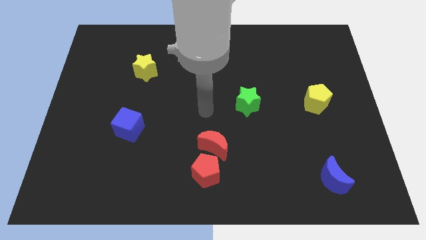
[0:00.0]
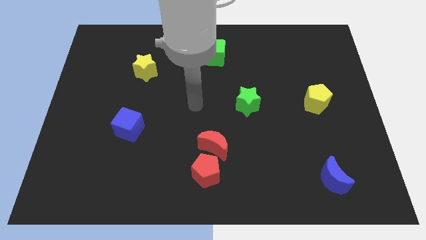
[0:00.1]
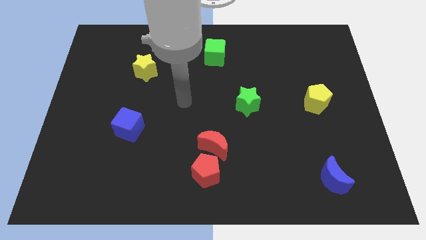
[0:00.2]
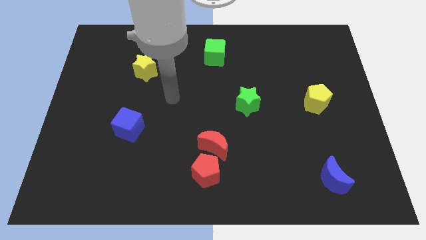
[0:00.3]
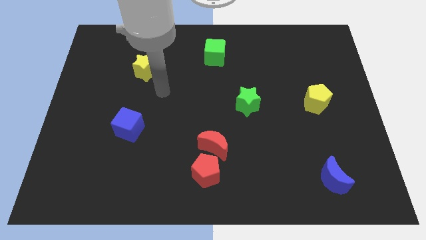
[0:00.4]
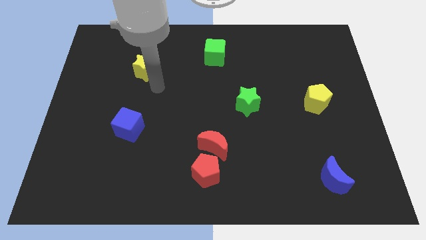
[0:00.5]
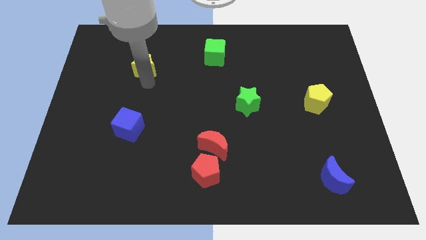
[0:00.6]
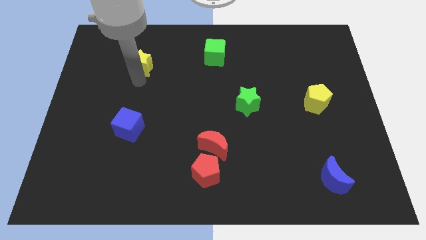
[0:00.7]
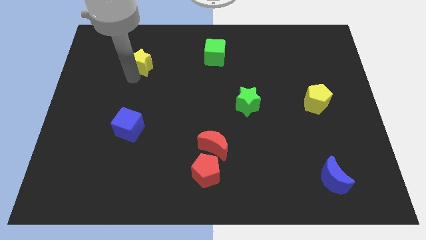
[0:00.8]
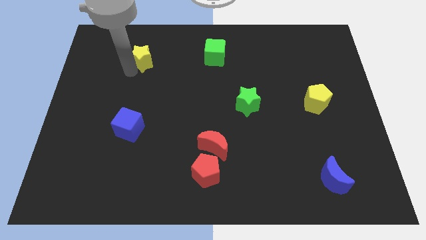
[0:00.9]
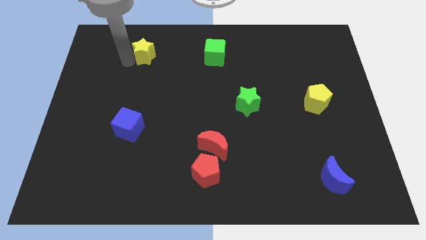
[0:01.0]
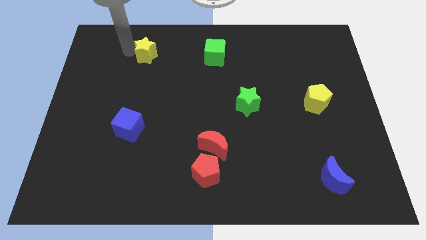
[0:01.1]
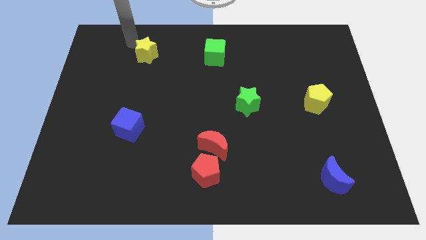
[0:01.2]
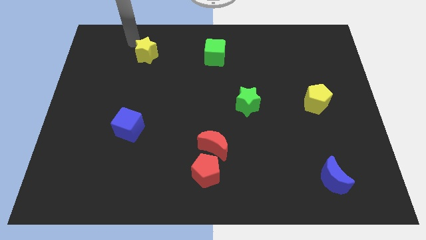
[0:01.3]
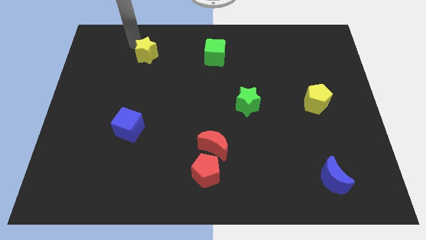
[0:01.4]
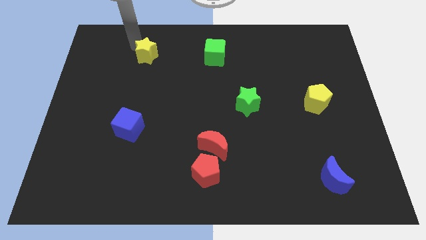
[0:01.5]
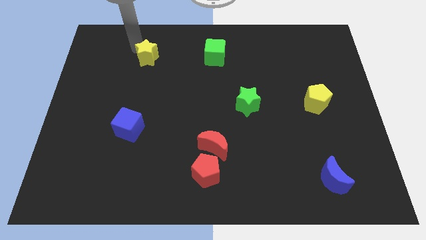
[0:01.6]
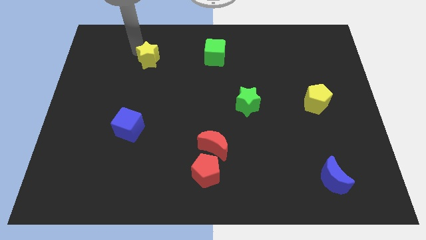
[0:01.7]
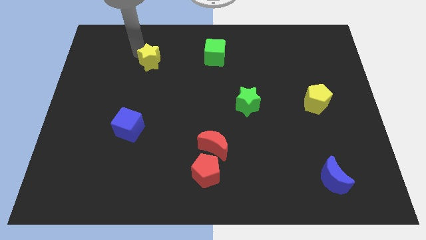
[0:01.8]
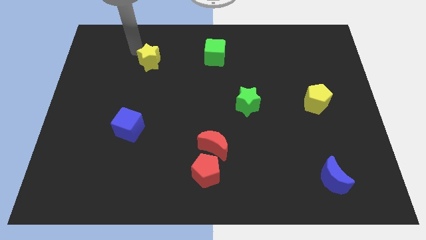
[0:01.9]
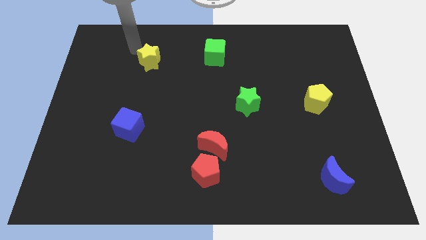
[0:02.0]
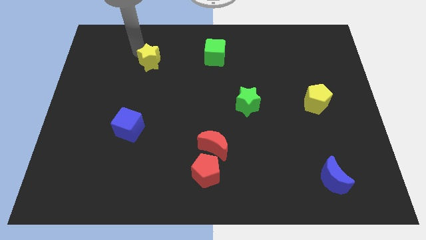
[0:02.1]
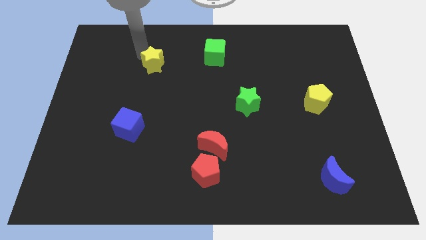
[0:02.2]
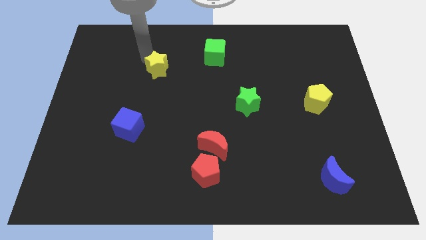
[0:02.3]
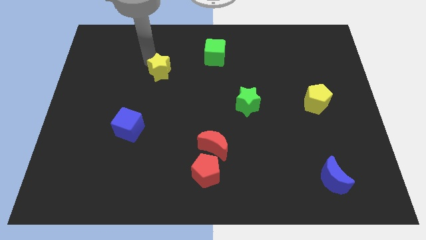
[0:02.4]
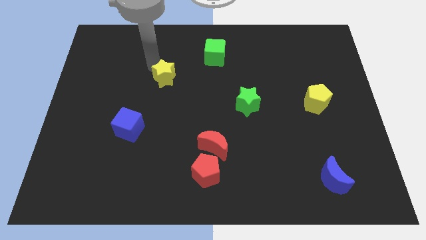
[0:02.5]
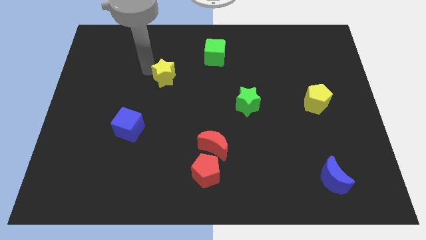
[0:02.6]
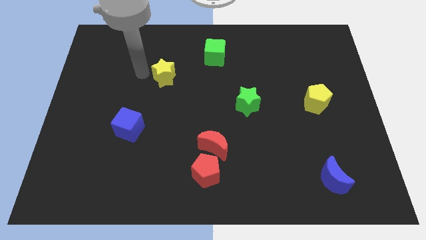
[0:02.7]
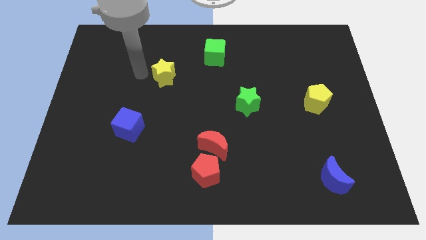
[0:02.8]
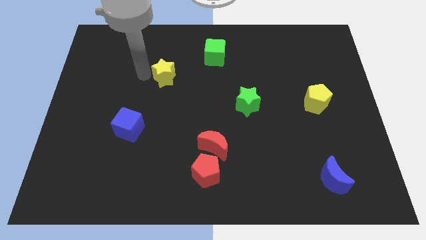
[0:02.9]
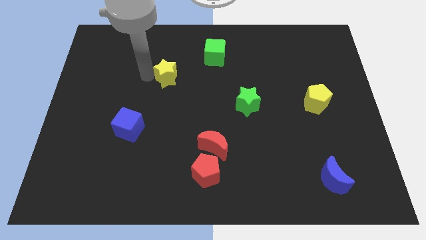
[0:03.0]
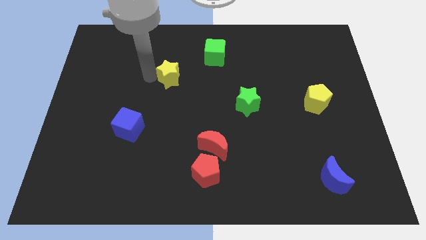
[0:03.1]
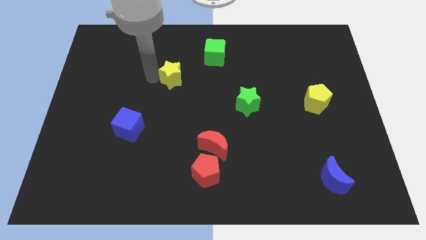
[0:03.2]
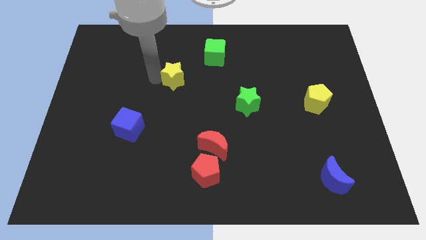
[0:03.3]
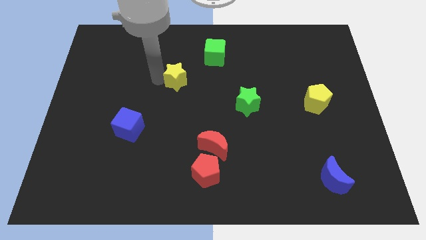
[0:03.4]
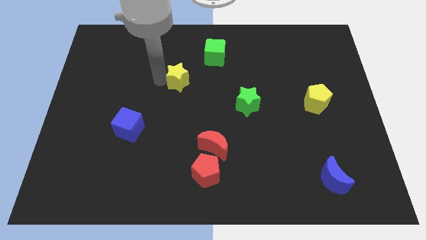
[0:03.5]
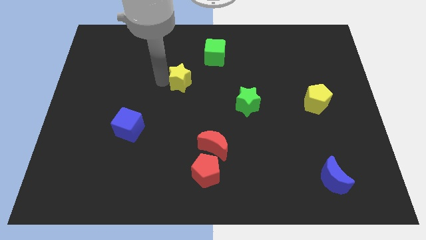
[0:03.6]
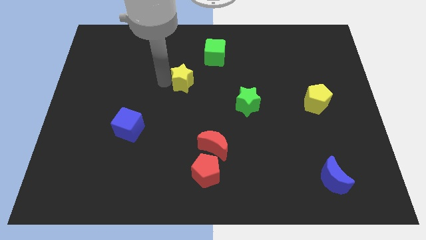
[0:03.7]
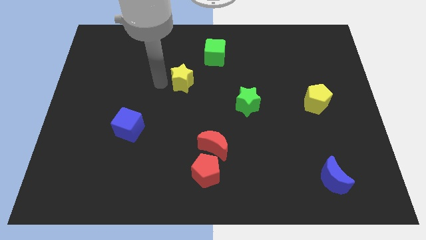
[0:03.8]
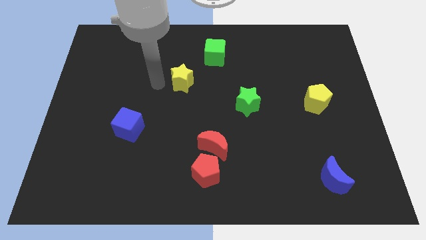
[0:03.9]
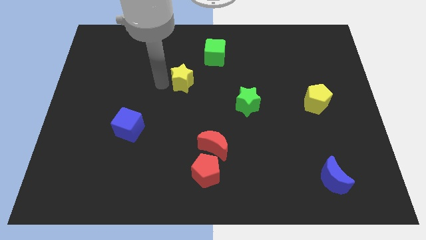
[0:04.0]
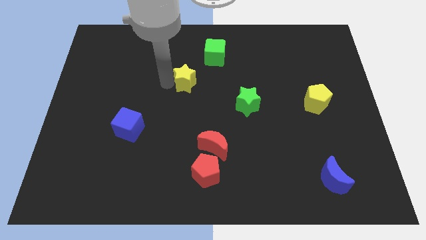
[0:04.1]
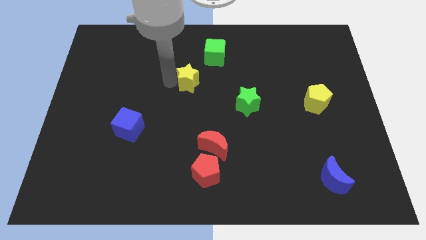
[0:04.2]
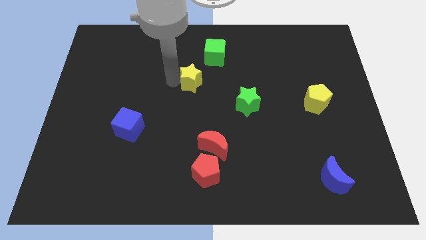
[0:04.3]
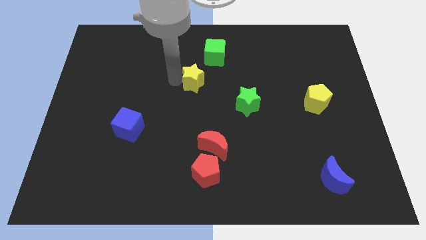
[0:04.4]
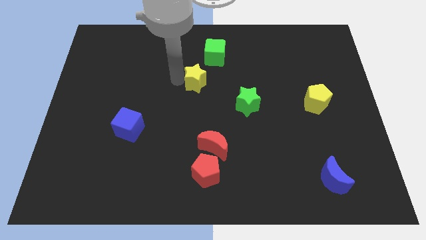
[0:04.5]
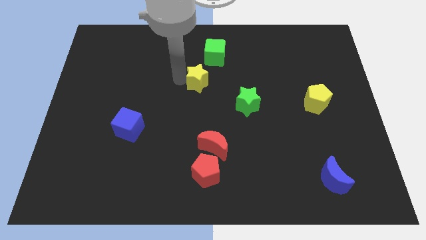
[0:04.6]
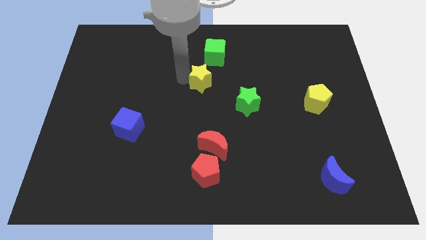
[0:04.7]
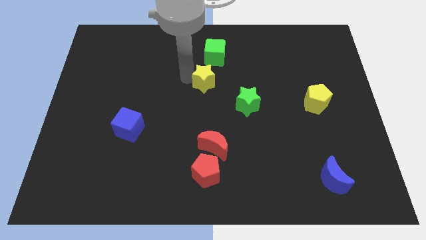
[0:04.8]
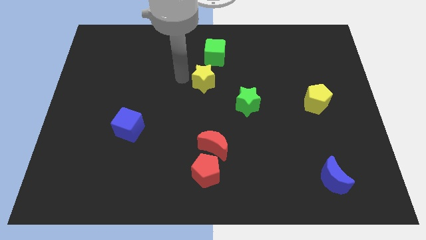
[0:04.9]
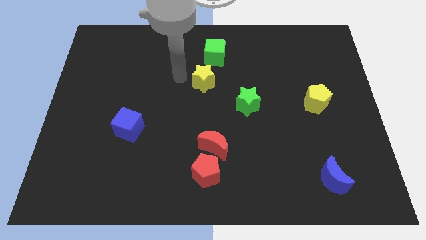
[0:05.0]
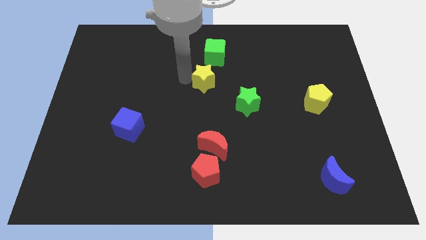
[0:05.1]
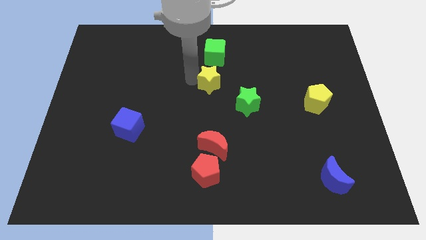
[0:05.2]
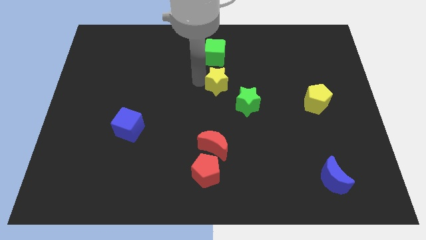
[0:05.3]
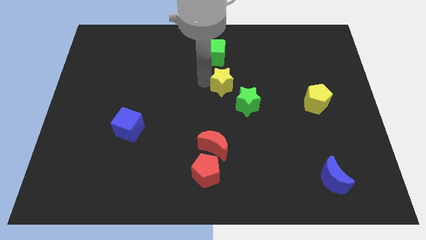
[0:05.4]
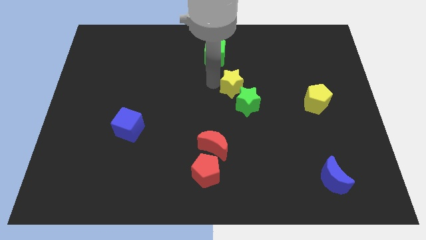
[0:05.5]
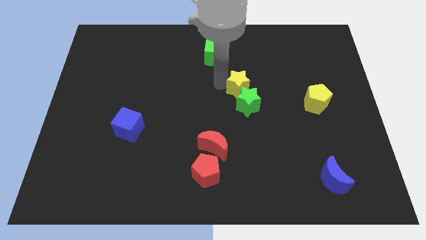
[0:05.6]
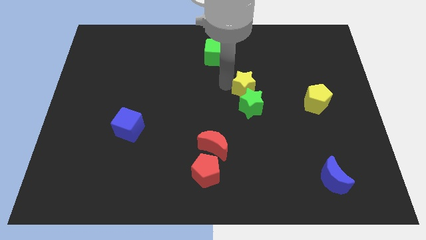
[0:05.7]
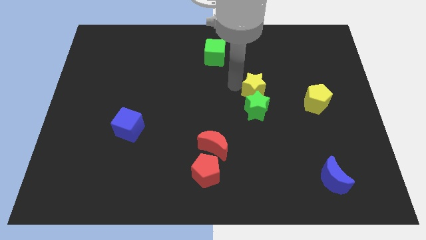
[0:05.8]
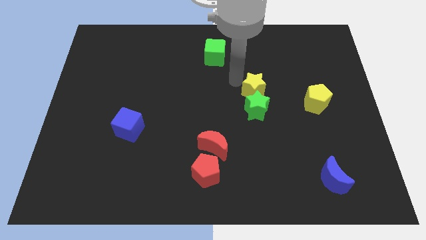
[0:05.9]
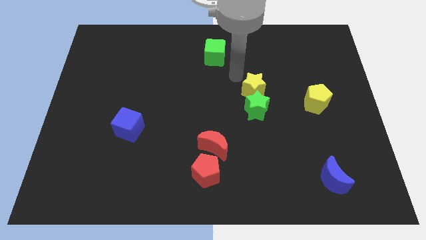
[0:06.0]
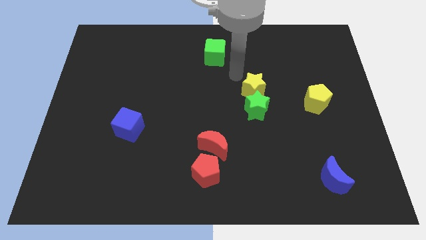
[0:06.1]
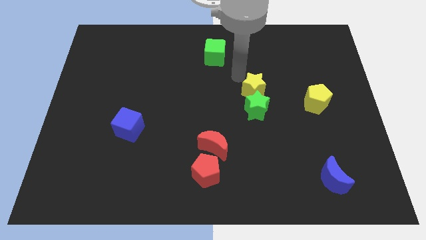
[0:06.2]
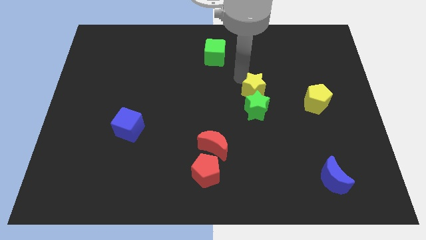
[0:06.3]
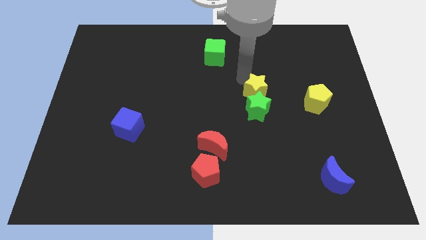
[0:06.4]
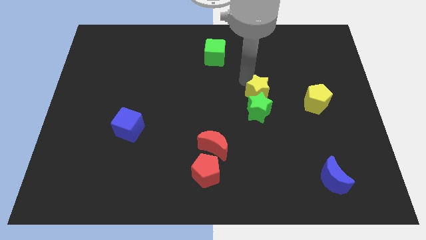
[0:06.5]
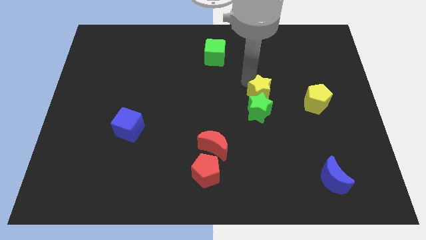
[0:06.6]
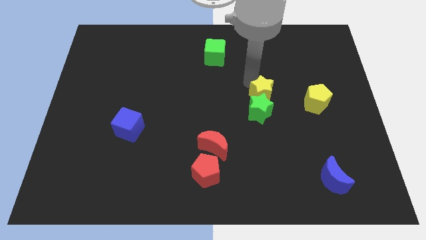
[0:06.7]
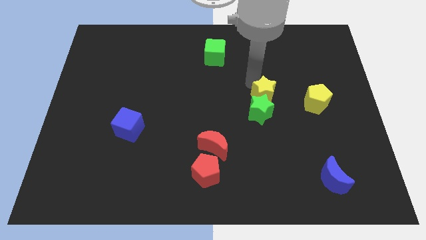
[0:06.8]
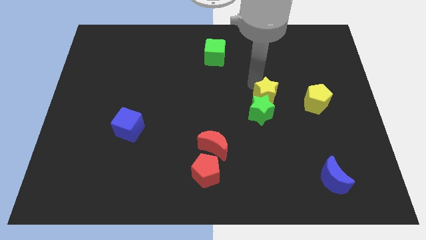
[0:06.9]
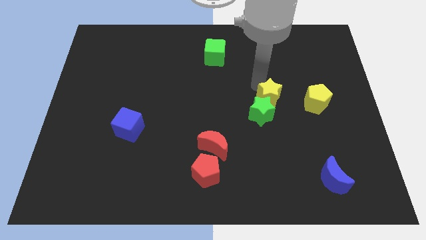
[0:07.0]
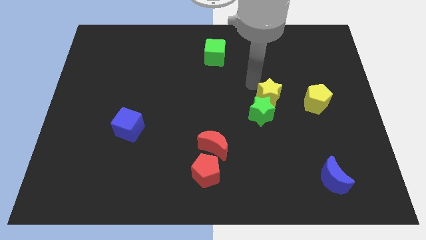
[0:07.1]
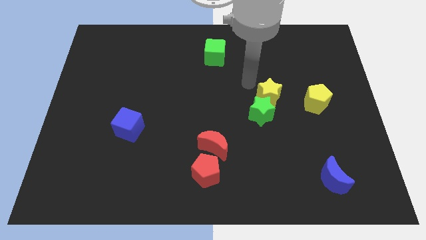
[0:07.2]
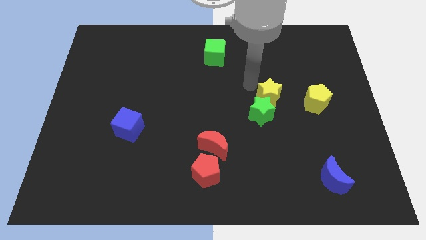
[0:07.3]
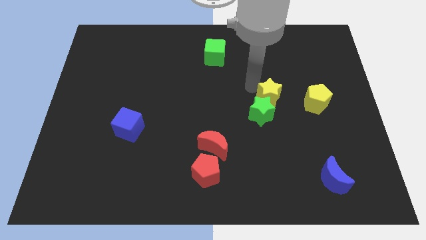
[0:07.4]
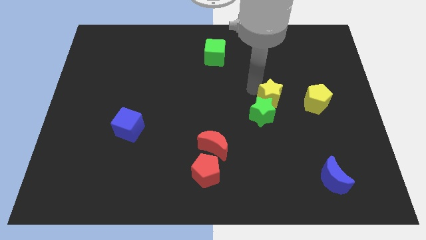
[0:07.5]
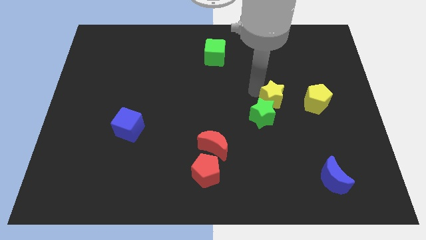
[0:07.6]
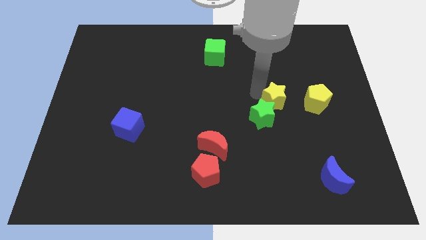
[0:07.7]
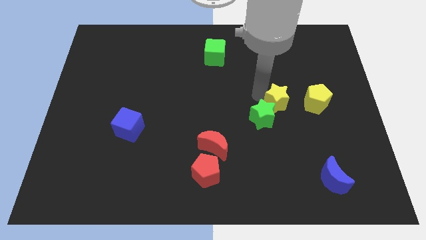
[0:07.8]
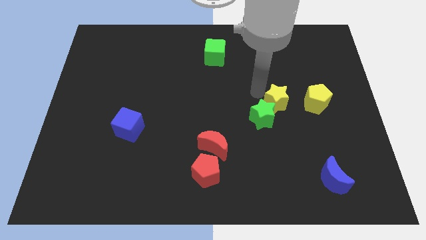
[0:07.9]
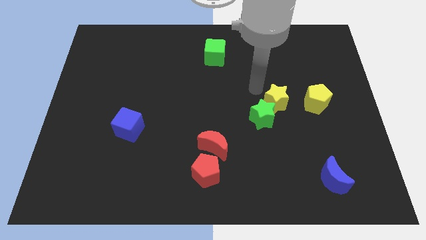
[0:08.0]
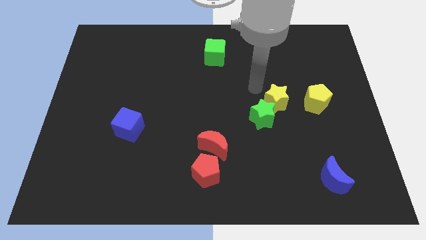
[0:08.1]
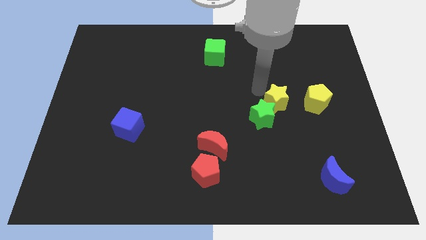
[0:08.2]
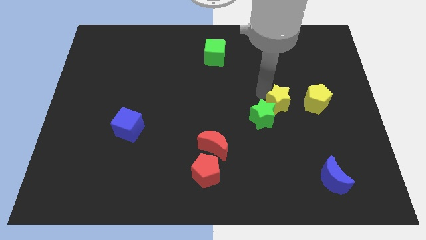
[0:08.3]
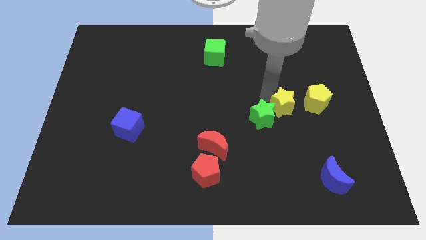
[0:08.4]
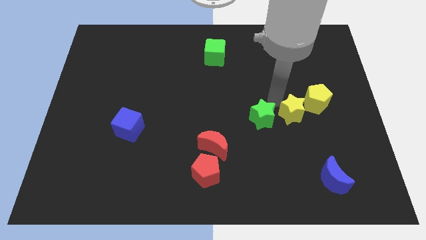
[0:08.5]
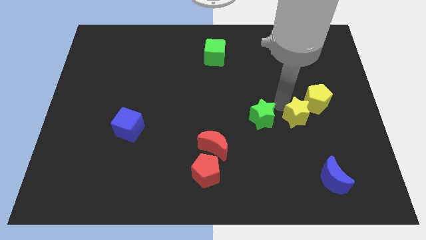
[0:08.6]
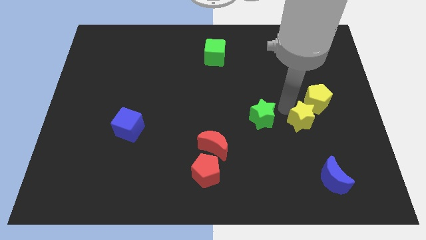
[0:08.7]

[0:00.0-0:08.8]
push the yellow star to the bottom side of the yellow pentagon
